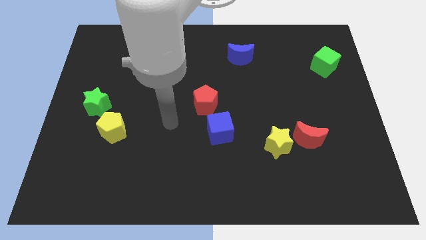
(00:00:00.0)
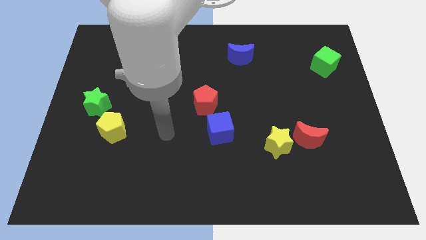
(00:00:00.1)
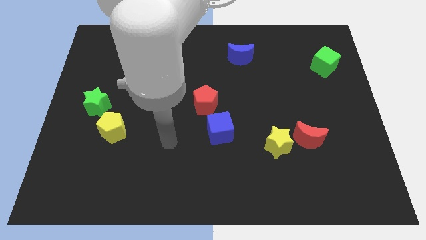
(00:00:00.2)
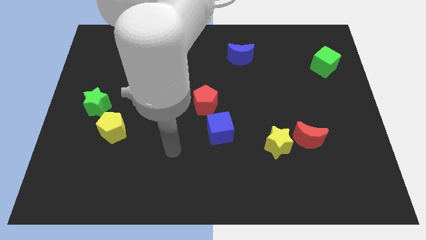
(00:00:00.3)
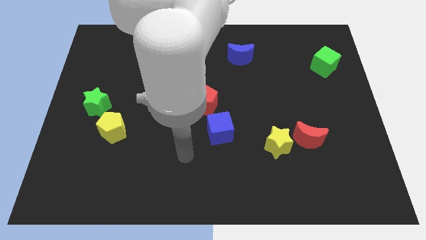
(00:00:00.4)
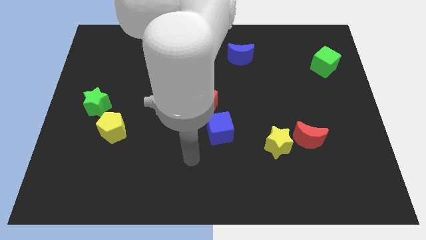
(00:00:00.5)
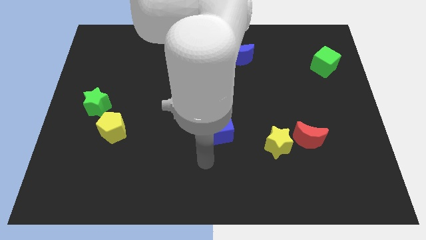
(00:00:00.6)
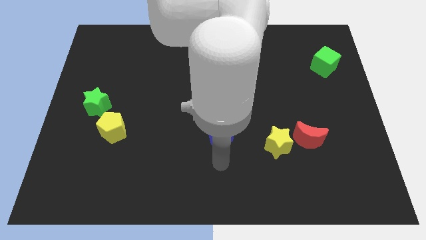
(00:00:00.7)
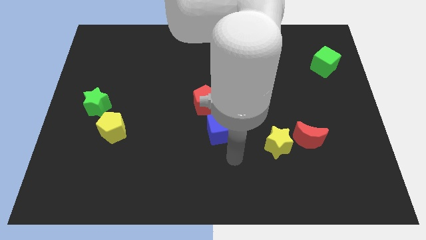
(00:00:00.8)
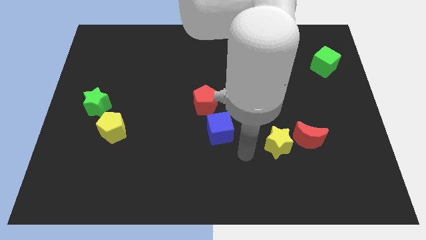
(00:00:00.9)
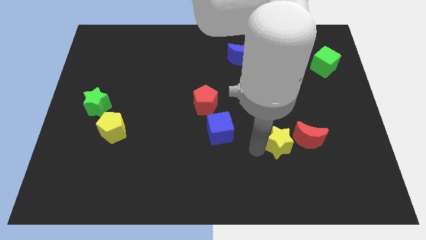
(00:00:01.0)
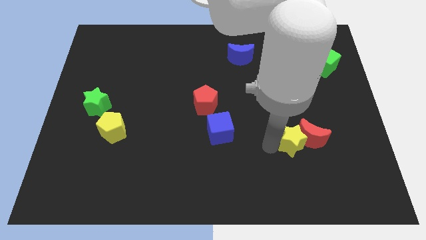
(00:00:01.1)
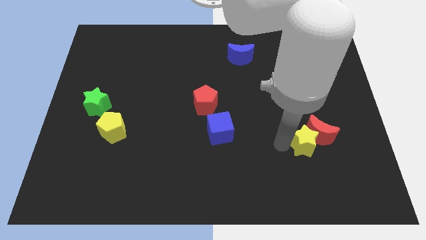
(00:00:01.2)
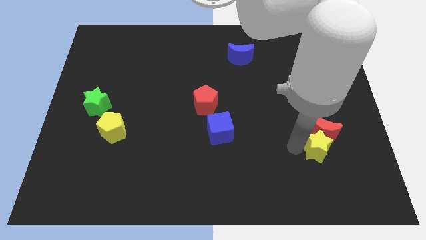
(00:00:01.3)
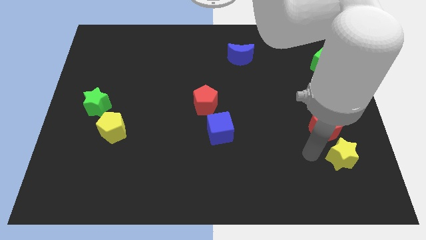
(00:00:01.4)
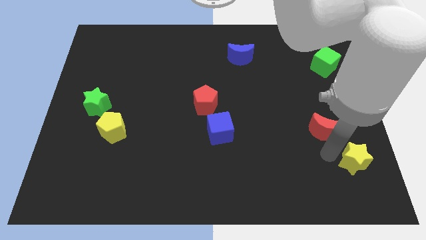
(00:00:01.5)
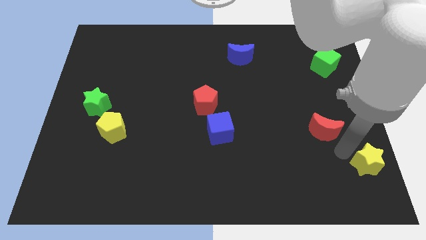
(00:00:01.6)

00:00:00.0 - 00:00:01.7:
pull the red moon apart from the yellow star

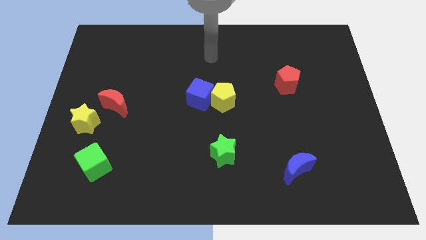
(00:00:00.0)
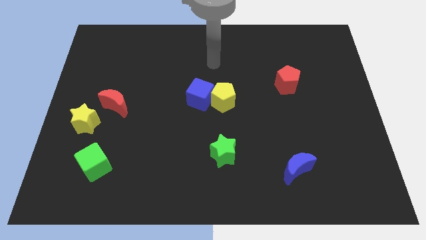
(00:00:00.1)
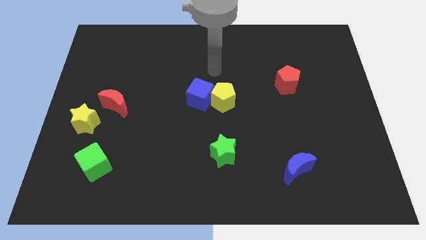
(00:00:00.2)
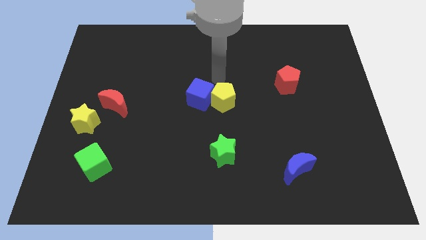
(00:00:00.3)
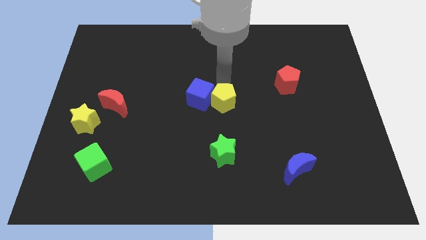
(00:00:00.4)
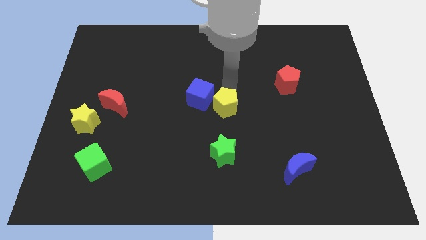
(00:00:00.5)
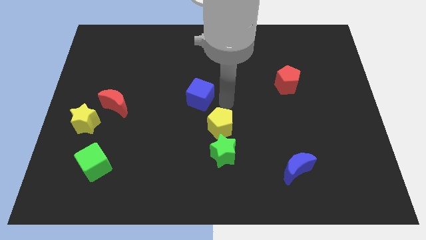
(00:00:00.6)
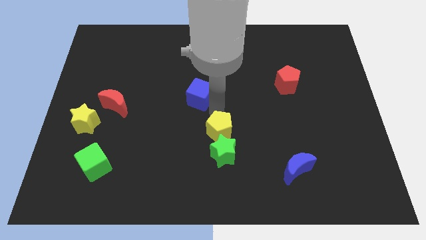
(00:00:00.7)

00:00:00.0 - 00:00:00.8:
move the blue cube away from the yellow pentagon

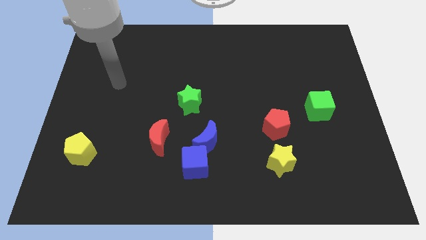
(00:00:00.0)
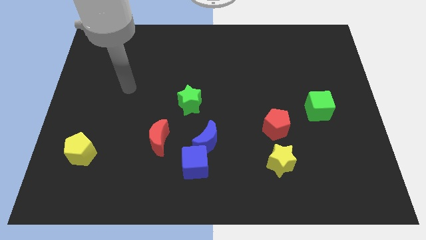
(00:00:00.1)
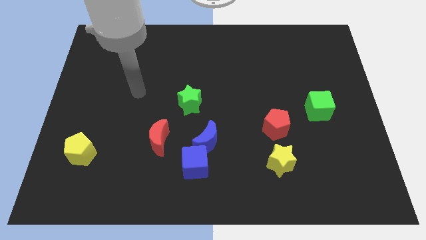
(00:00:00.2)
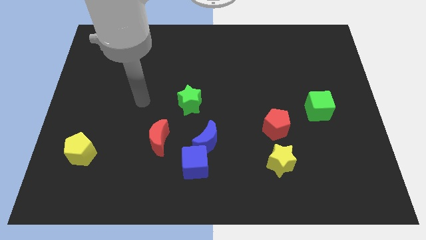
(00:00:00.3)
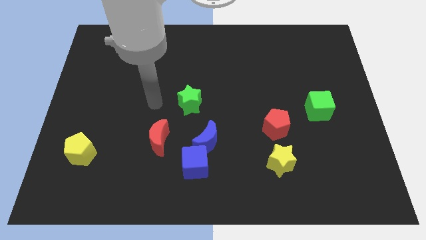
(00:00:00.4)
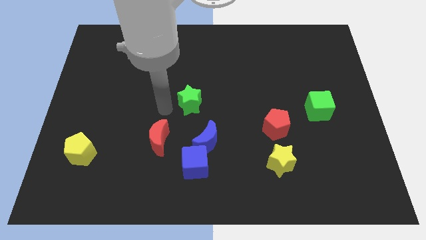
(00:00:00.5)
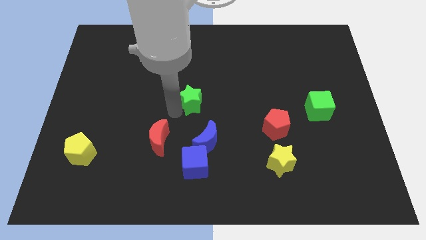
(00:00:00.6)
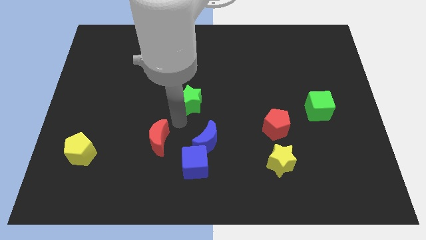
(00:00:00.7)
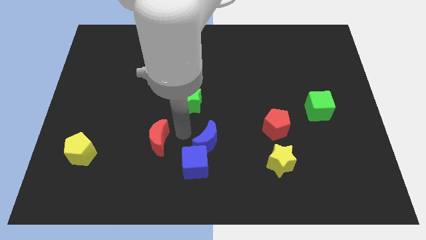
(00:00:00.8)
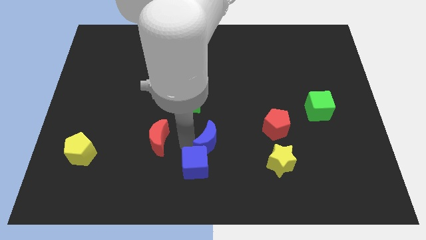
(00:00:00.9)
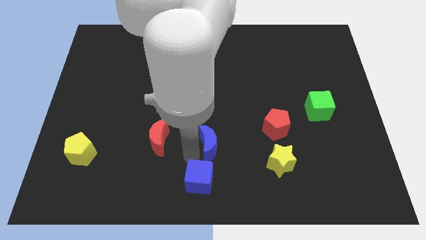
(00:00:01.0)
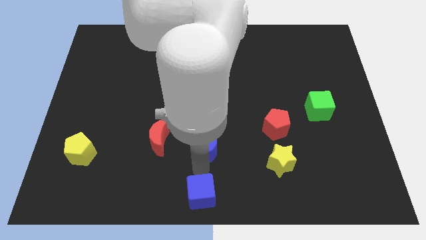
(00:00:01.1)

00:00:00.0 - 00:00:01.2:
pull the blue moon apart from the blue cube

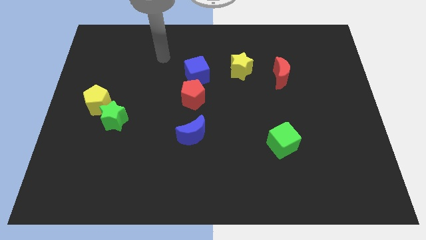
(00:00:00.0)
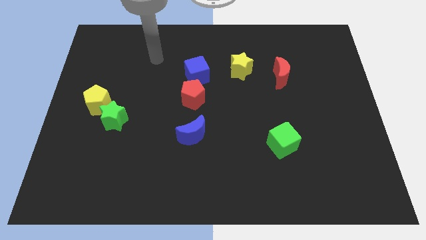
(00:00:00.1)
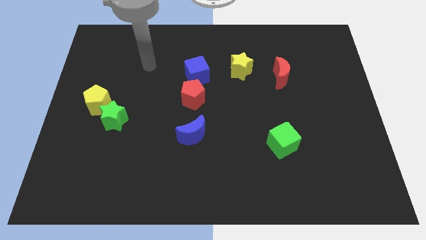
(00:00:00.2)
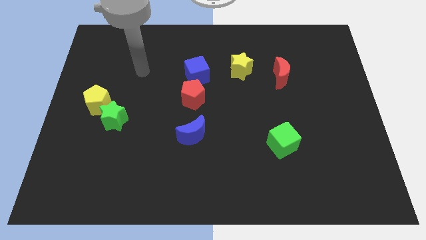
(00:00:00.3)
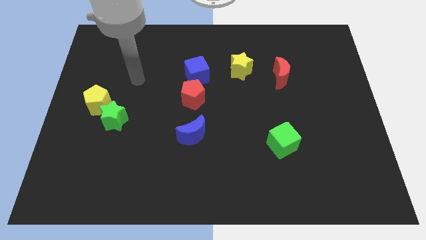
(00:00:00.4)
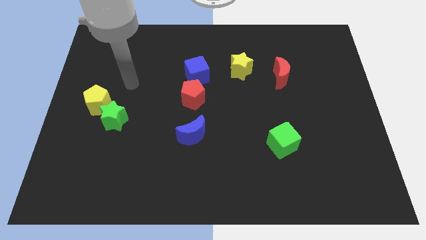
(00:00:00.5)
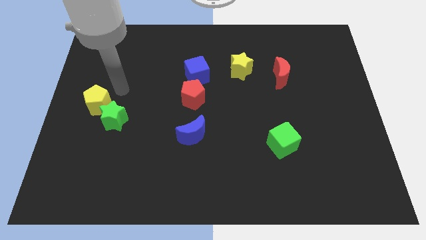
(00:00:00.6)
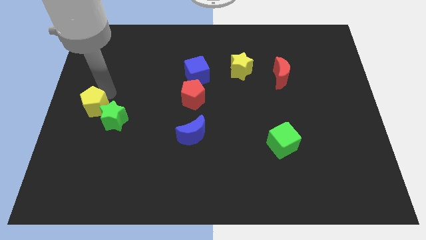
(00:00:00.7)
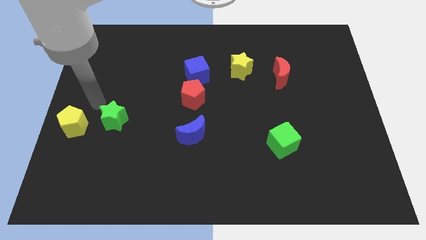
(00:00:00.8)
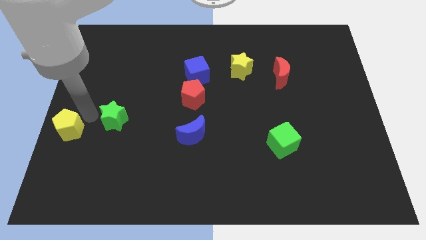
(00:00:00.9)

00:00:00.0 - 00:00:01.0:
separate the green star from the yellow pentagon

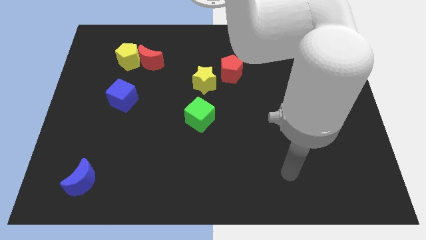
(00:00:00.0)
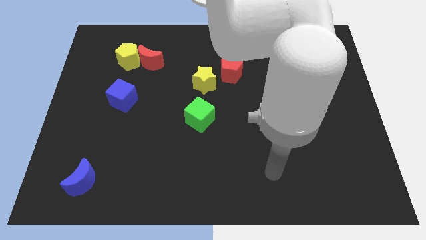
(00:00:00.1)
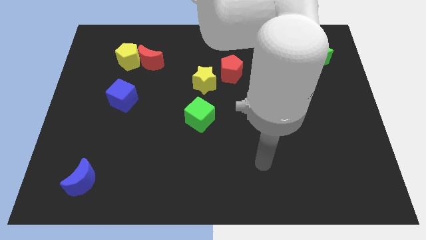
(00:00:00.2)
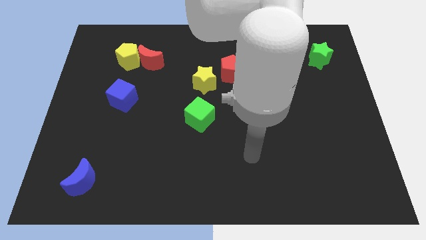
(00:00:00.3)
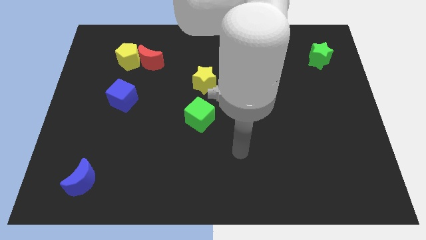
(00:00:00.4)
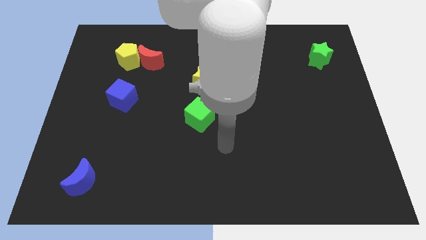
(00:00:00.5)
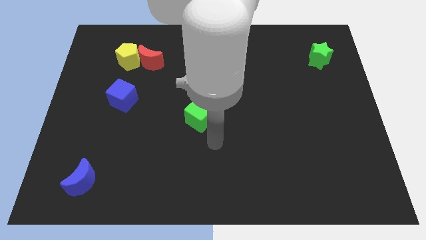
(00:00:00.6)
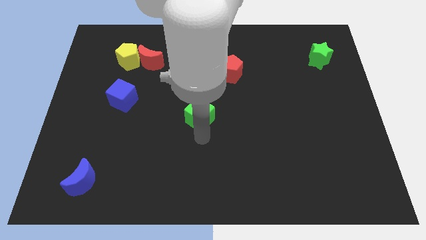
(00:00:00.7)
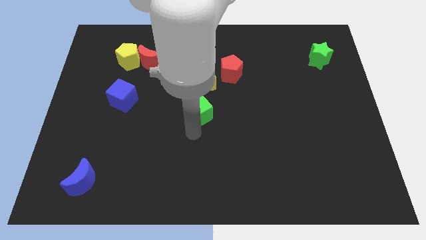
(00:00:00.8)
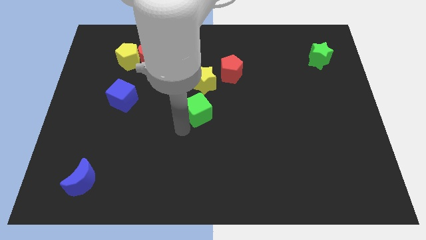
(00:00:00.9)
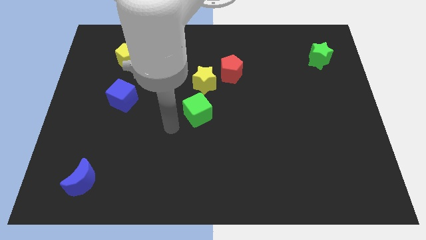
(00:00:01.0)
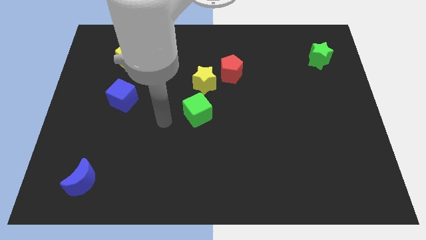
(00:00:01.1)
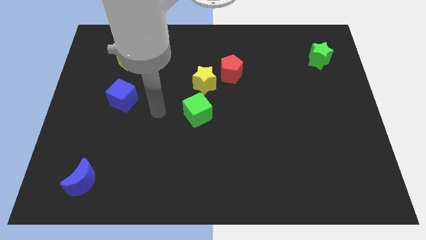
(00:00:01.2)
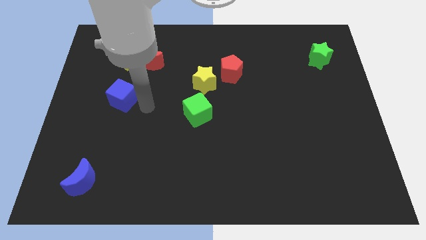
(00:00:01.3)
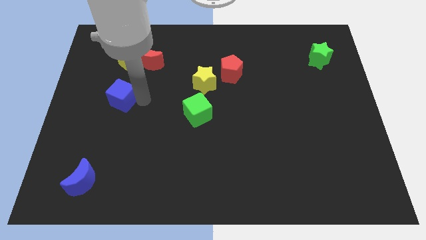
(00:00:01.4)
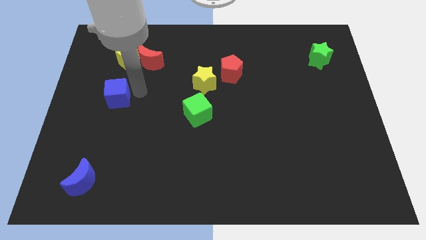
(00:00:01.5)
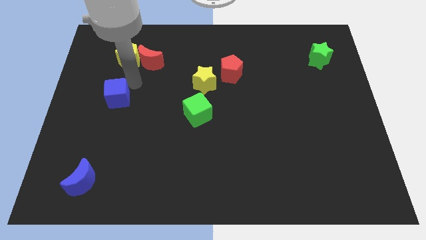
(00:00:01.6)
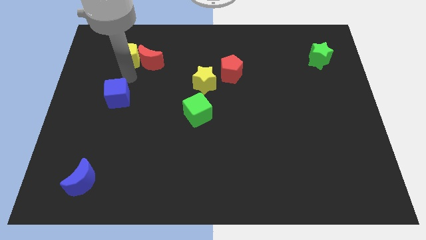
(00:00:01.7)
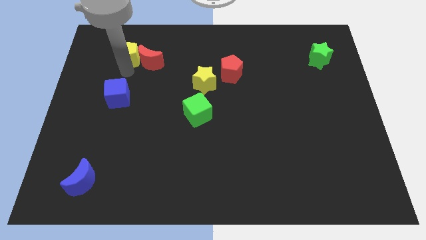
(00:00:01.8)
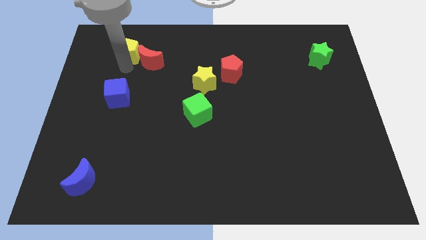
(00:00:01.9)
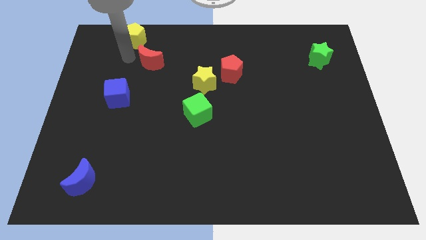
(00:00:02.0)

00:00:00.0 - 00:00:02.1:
separate the red moon from the yellow pentagon

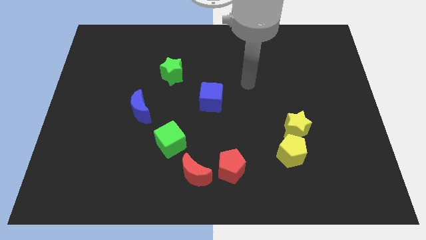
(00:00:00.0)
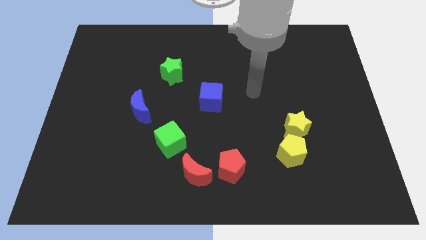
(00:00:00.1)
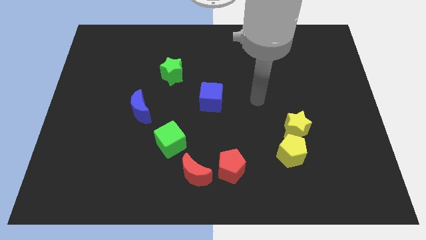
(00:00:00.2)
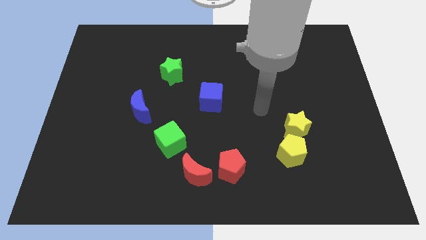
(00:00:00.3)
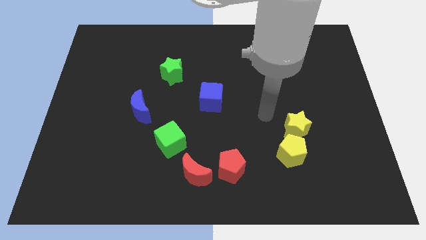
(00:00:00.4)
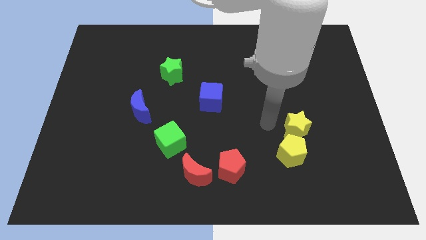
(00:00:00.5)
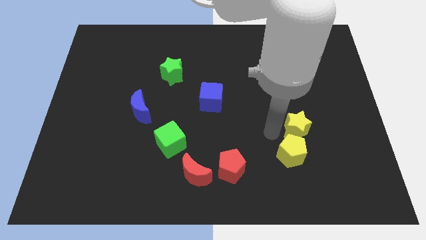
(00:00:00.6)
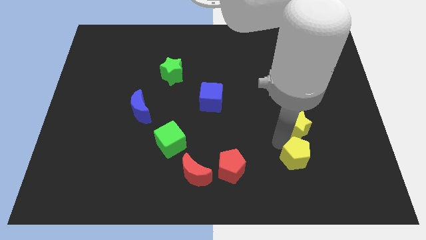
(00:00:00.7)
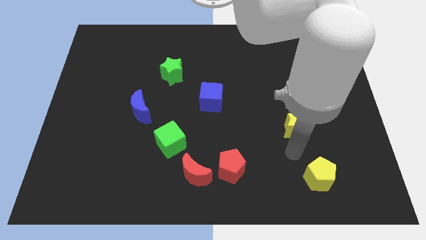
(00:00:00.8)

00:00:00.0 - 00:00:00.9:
move the yellow star away from the yellow pentagon

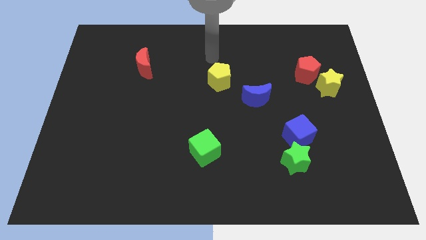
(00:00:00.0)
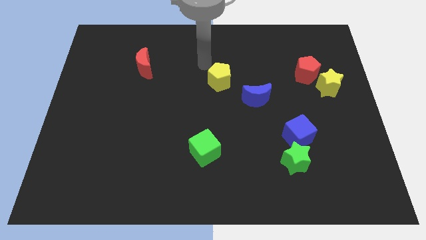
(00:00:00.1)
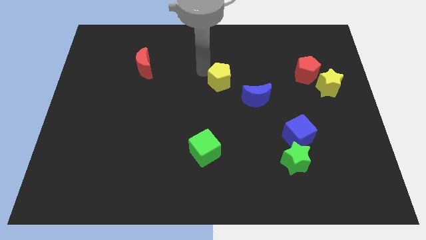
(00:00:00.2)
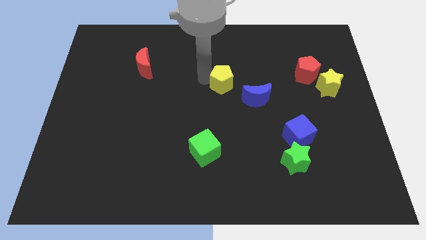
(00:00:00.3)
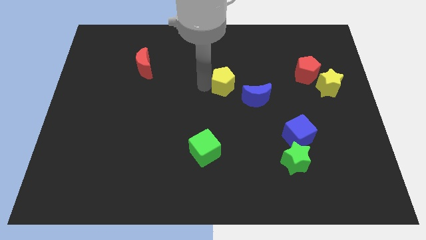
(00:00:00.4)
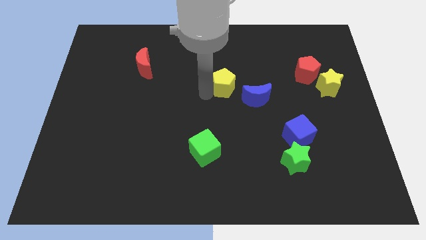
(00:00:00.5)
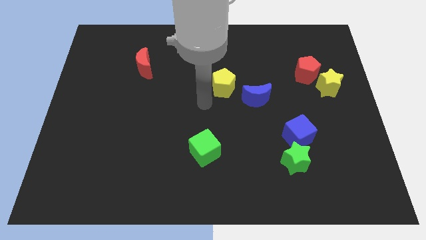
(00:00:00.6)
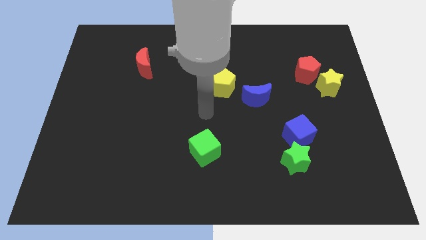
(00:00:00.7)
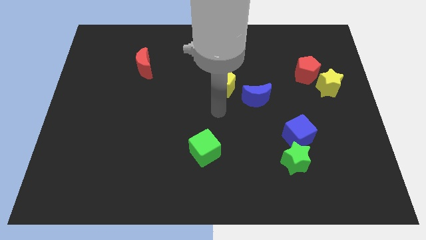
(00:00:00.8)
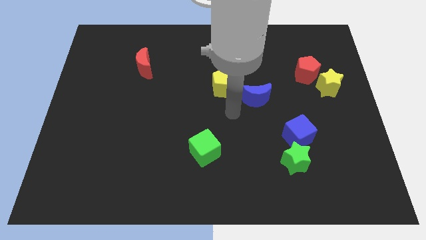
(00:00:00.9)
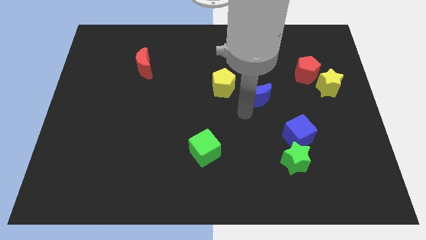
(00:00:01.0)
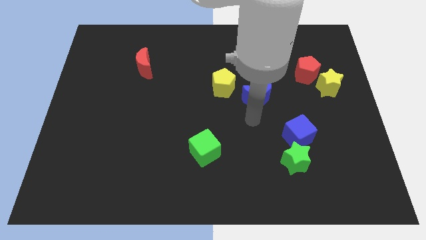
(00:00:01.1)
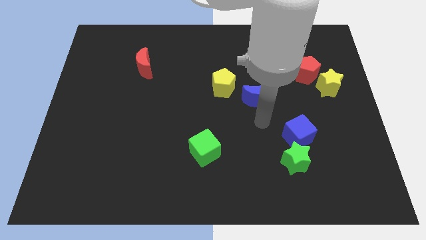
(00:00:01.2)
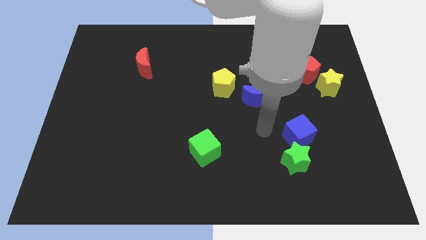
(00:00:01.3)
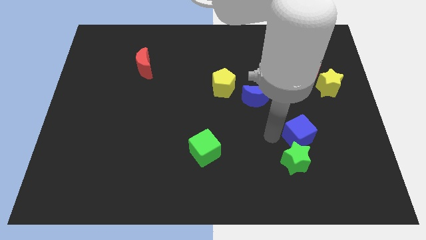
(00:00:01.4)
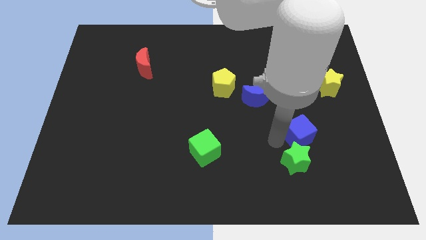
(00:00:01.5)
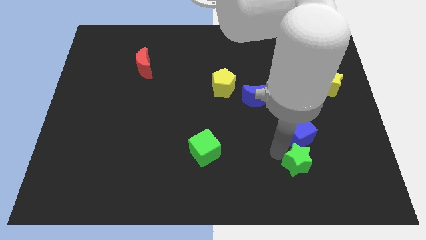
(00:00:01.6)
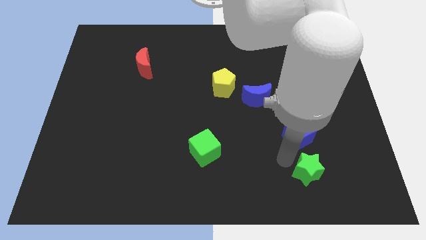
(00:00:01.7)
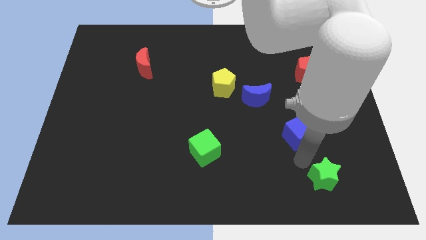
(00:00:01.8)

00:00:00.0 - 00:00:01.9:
move the blue cube away from the green star
